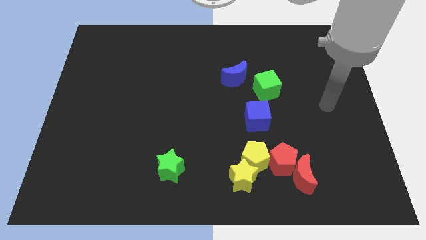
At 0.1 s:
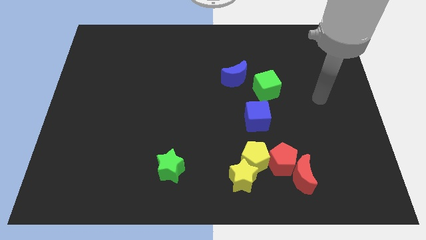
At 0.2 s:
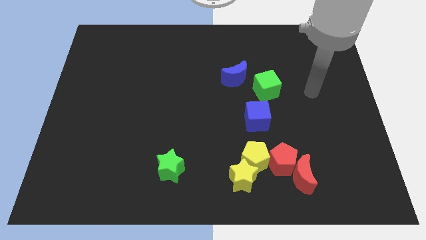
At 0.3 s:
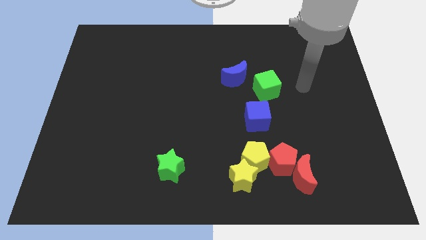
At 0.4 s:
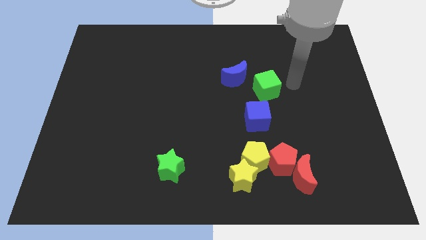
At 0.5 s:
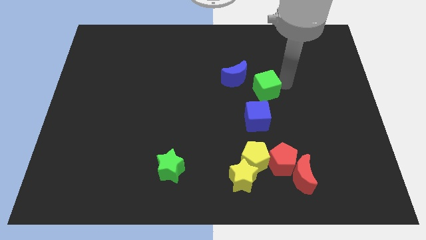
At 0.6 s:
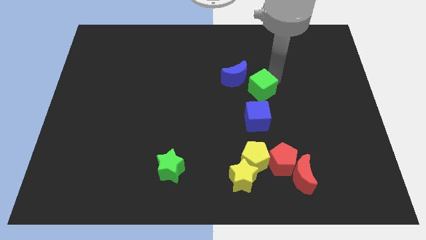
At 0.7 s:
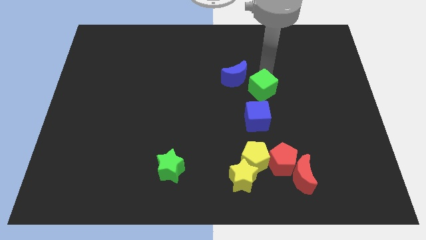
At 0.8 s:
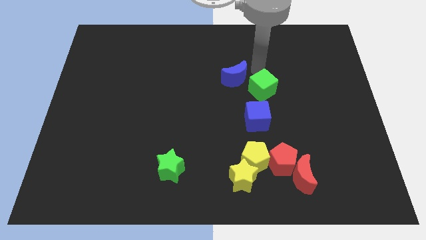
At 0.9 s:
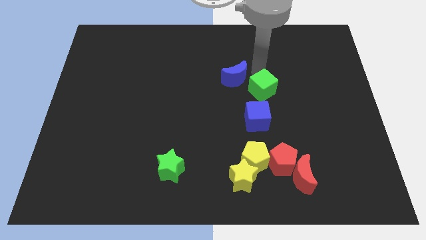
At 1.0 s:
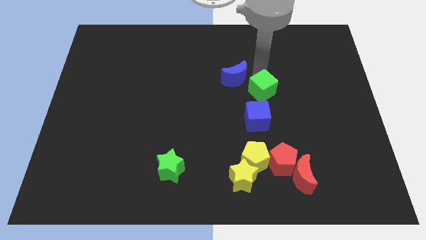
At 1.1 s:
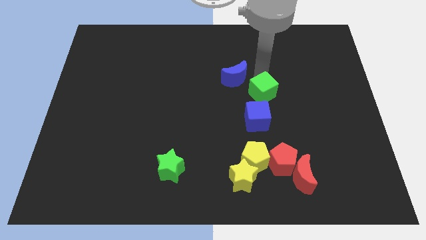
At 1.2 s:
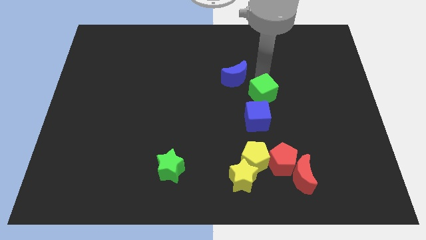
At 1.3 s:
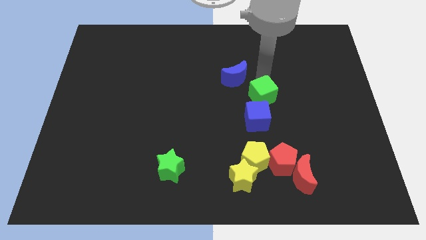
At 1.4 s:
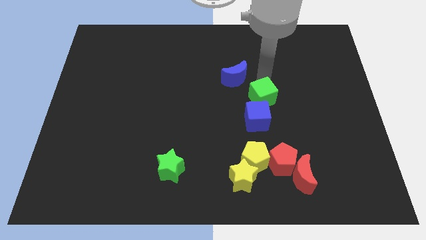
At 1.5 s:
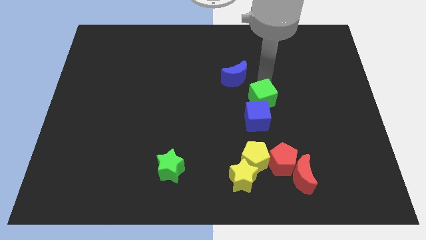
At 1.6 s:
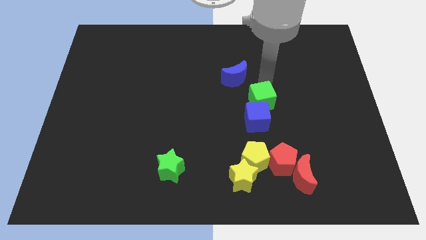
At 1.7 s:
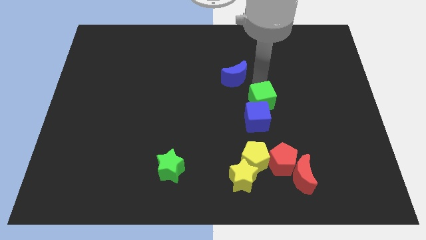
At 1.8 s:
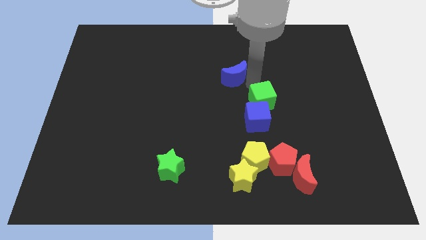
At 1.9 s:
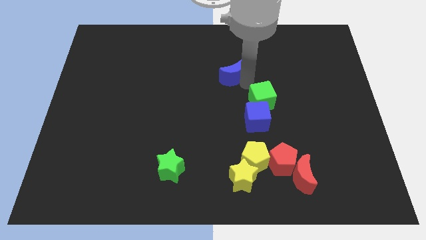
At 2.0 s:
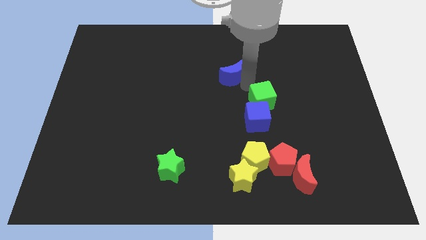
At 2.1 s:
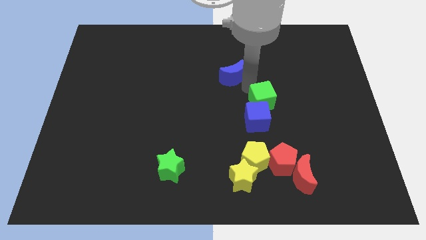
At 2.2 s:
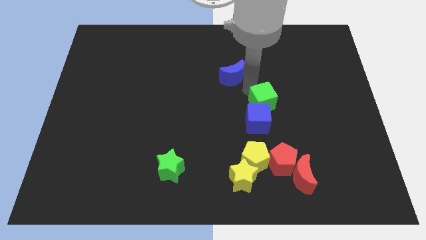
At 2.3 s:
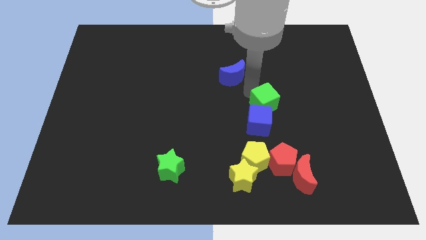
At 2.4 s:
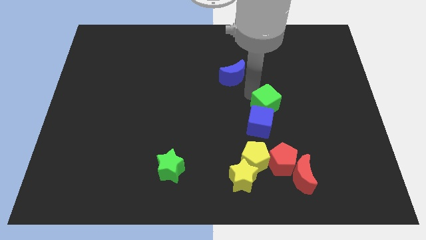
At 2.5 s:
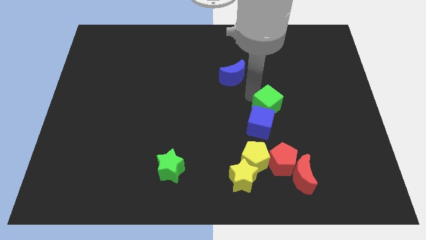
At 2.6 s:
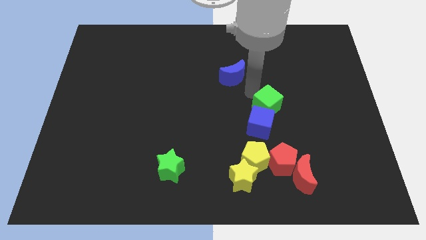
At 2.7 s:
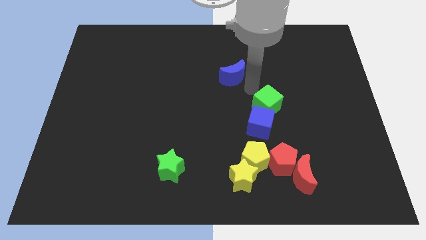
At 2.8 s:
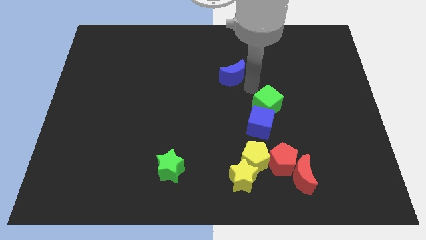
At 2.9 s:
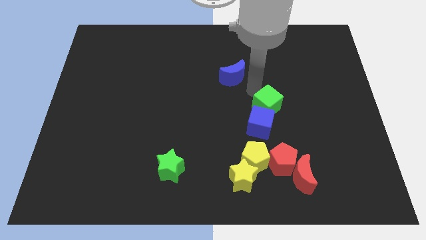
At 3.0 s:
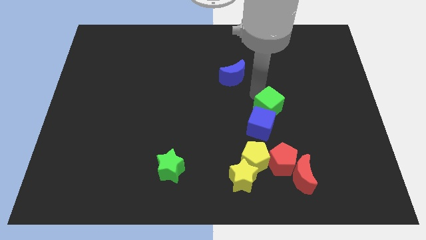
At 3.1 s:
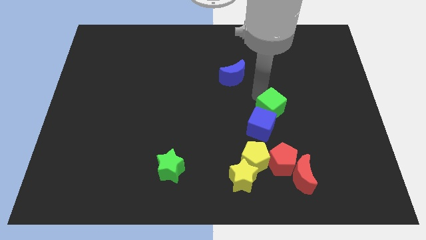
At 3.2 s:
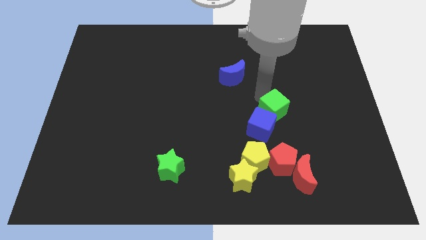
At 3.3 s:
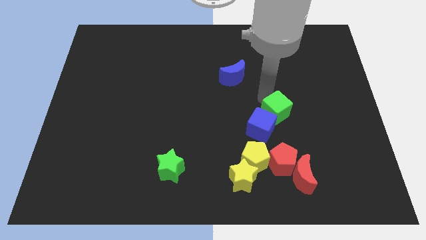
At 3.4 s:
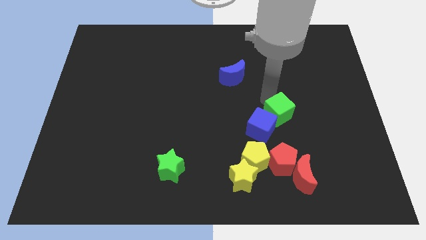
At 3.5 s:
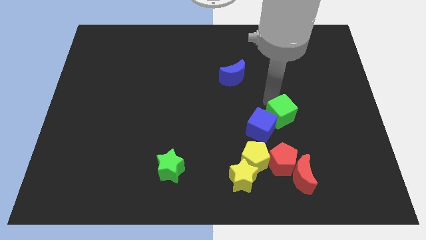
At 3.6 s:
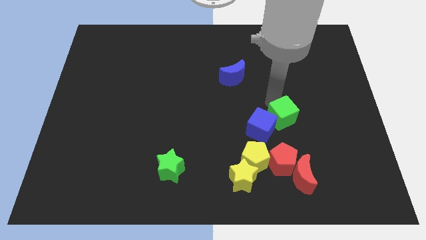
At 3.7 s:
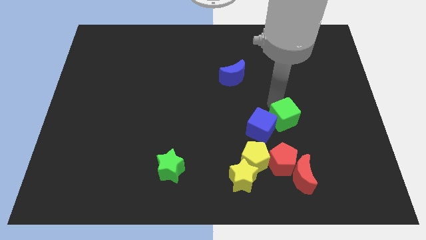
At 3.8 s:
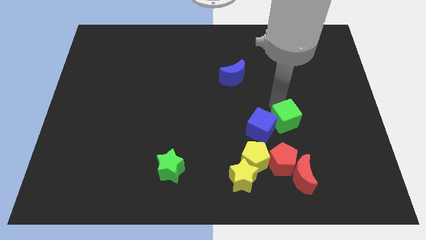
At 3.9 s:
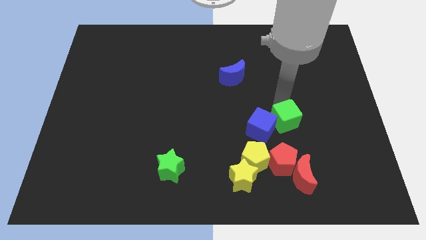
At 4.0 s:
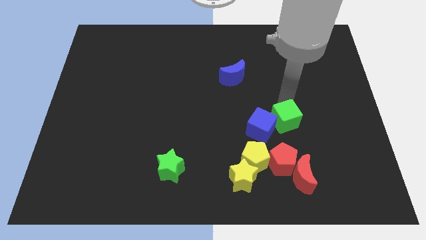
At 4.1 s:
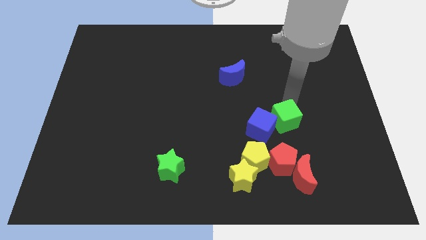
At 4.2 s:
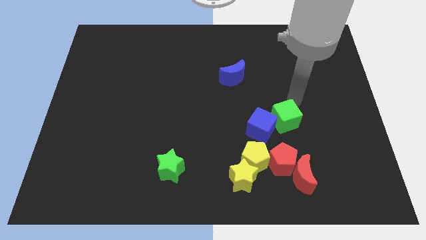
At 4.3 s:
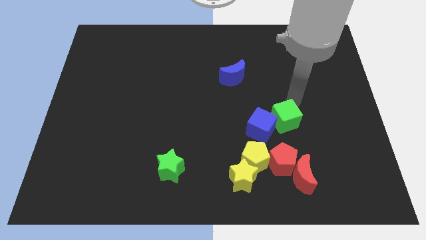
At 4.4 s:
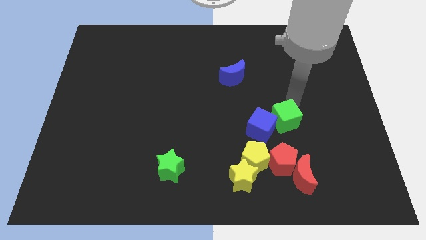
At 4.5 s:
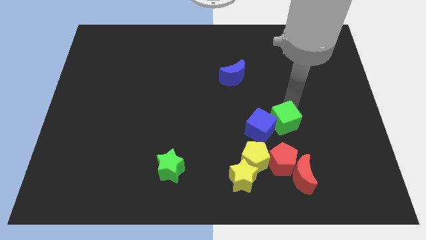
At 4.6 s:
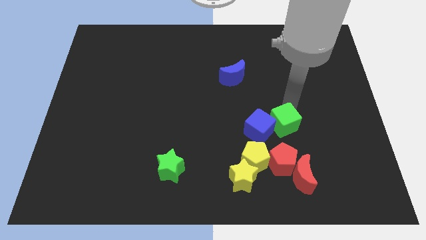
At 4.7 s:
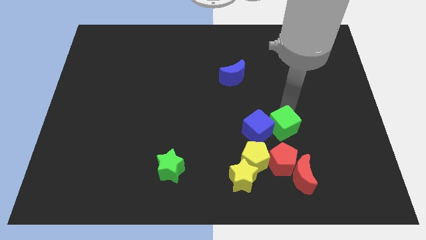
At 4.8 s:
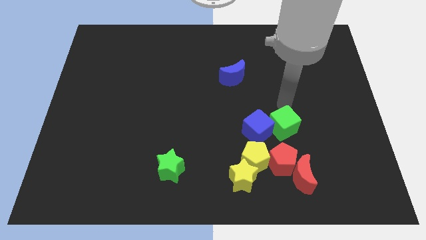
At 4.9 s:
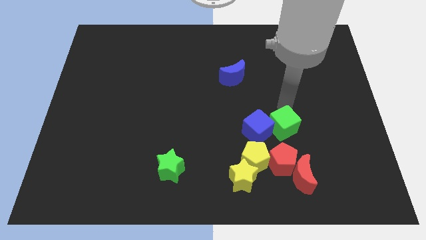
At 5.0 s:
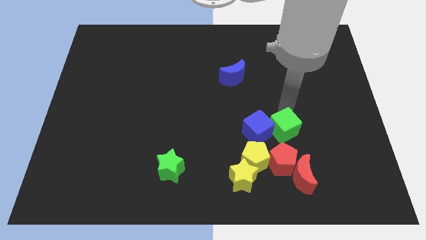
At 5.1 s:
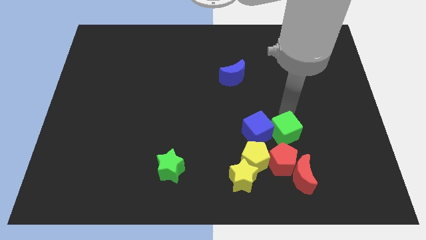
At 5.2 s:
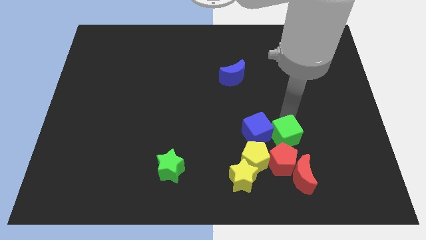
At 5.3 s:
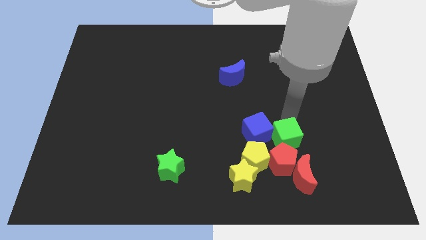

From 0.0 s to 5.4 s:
put the green cube next to the red pentagon

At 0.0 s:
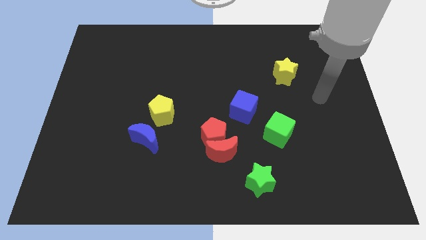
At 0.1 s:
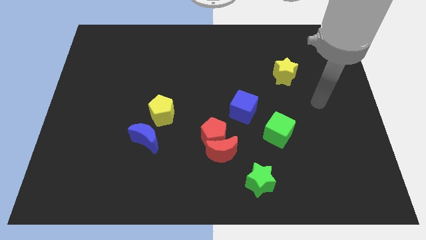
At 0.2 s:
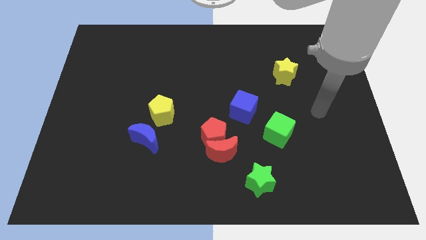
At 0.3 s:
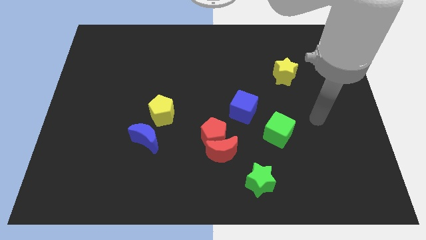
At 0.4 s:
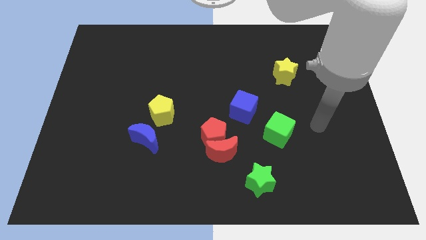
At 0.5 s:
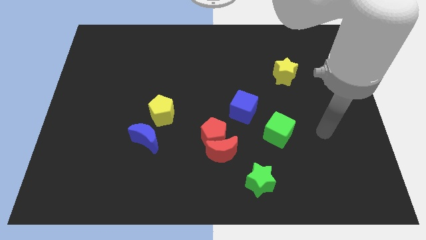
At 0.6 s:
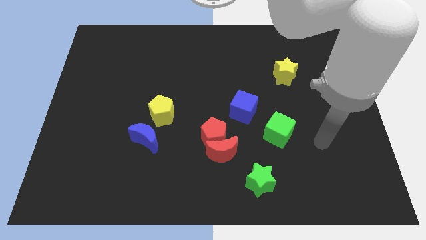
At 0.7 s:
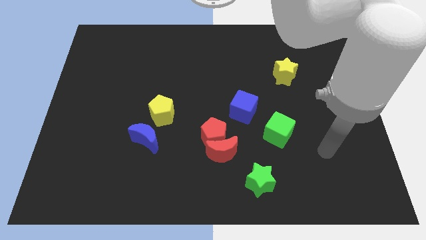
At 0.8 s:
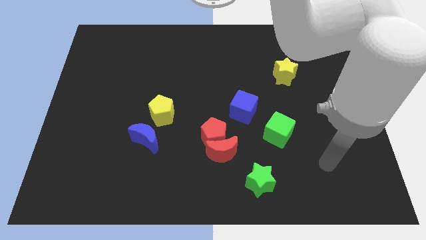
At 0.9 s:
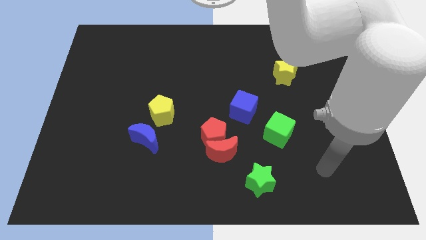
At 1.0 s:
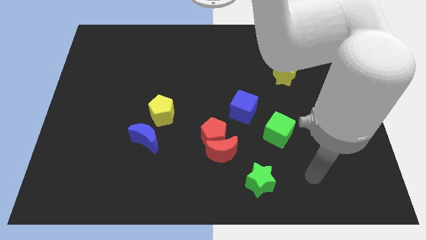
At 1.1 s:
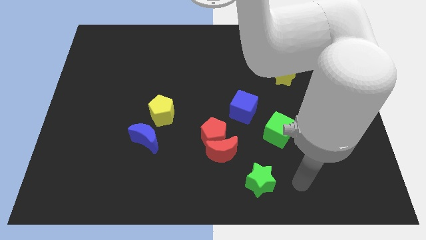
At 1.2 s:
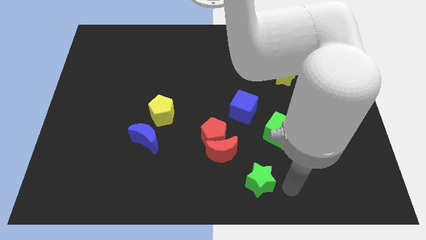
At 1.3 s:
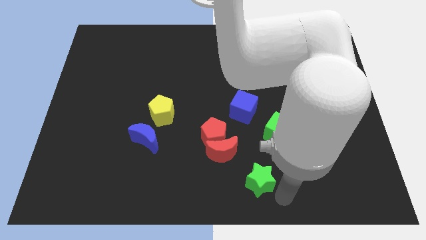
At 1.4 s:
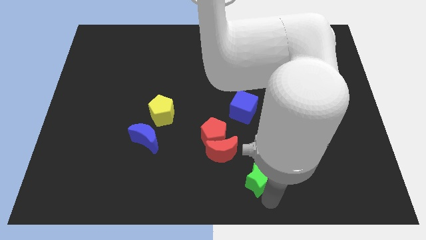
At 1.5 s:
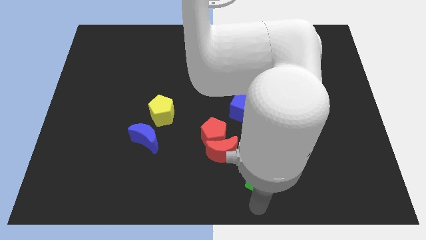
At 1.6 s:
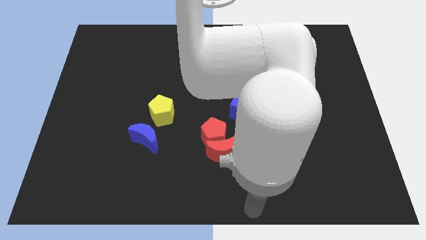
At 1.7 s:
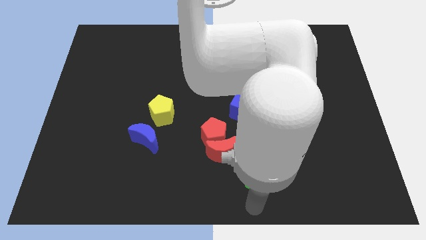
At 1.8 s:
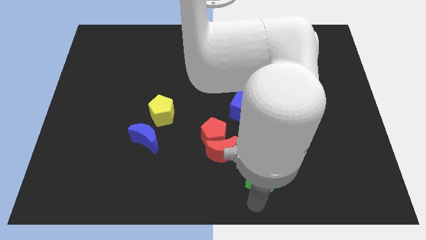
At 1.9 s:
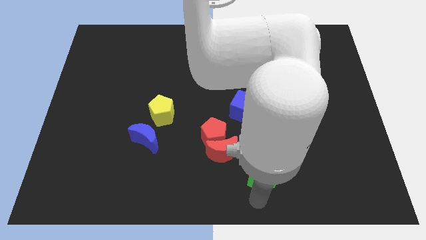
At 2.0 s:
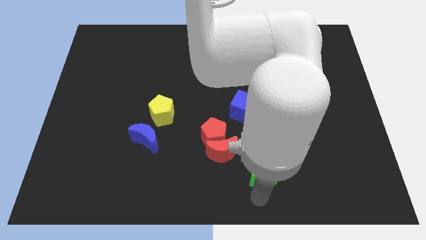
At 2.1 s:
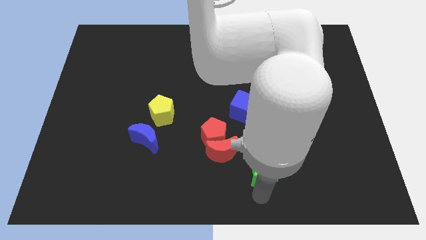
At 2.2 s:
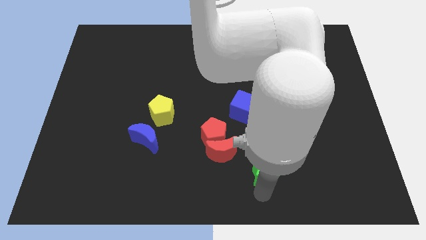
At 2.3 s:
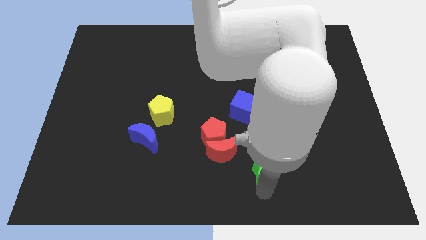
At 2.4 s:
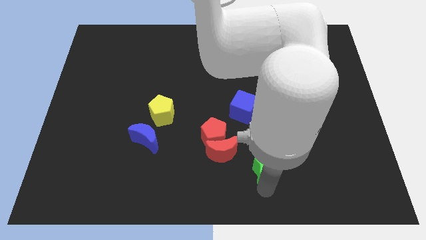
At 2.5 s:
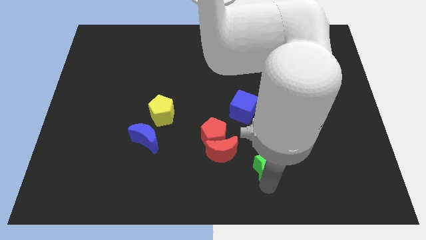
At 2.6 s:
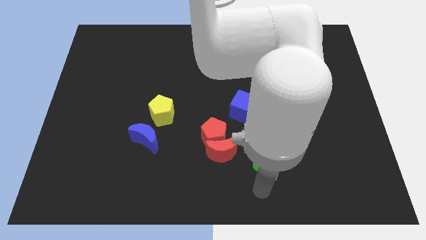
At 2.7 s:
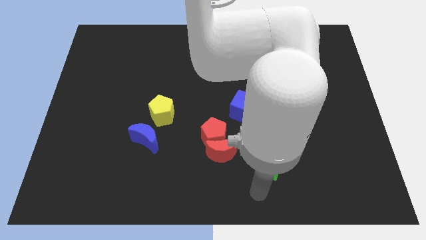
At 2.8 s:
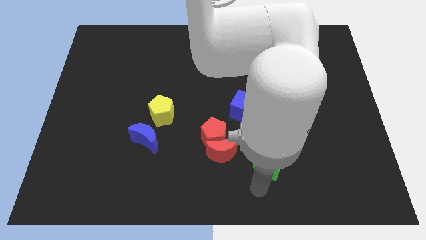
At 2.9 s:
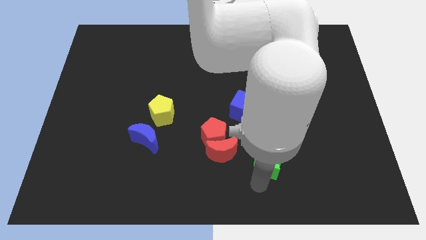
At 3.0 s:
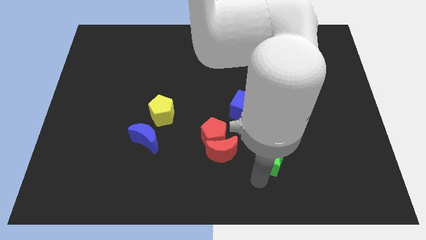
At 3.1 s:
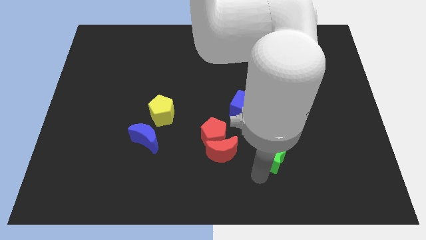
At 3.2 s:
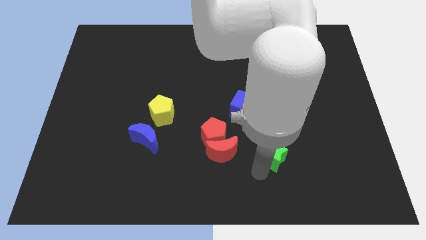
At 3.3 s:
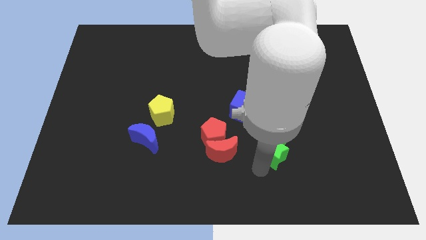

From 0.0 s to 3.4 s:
put the green star to the green cube
